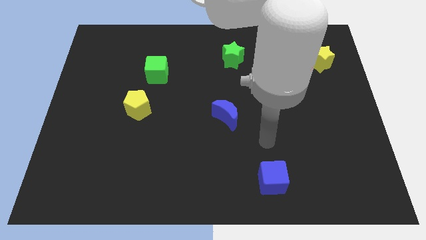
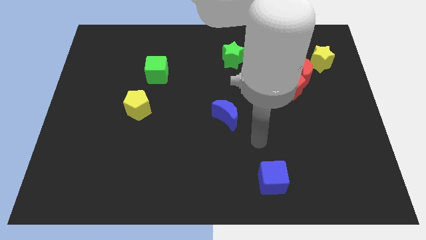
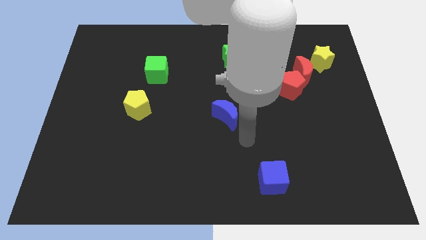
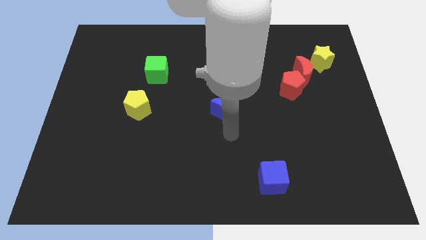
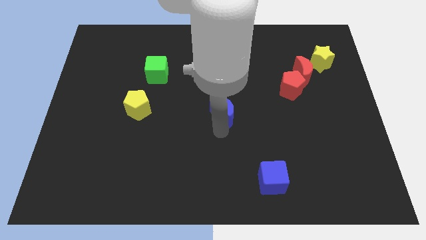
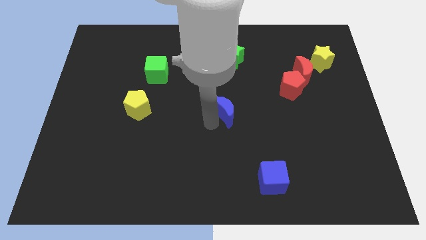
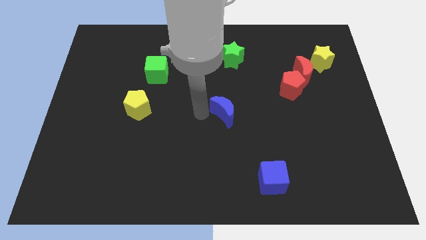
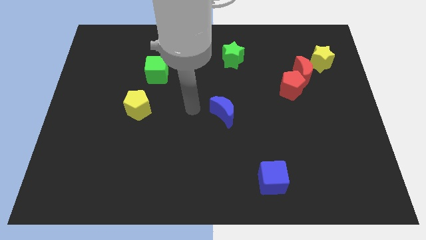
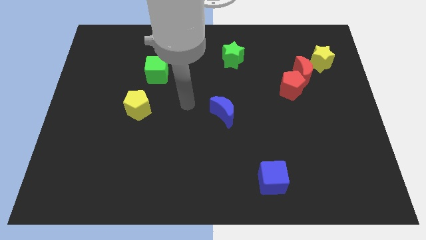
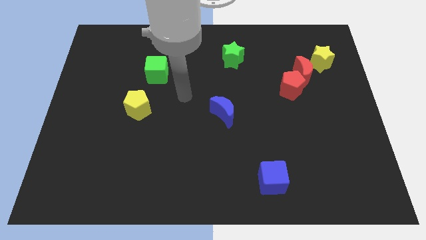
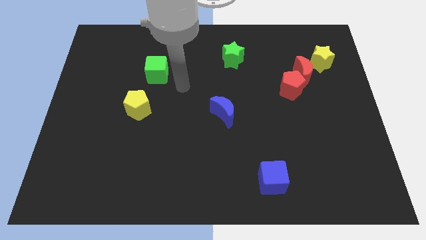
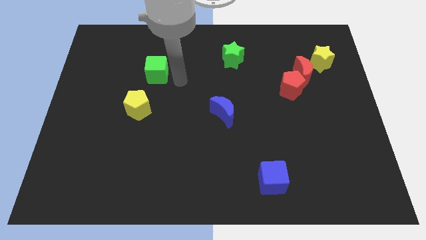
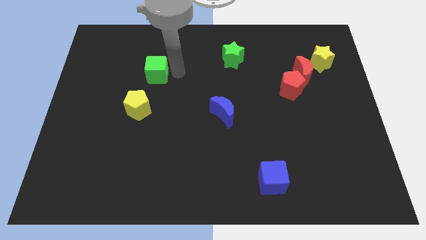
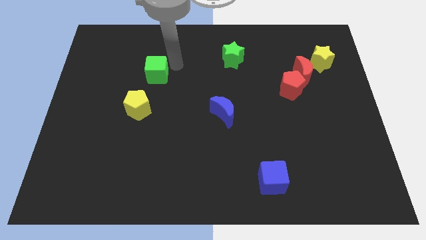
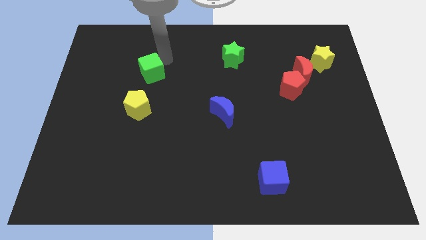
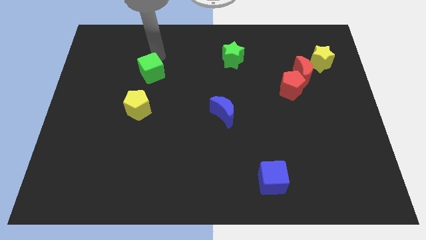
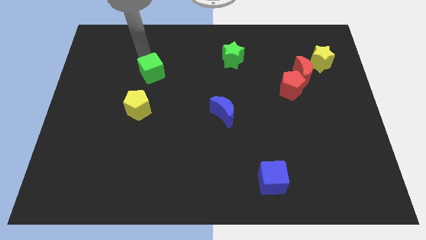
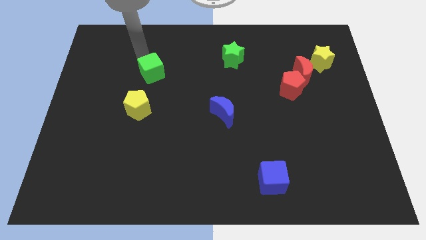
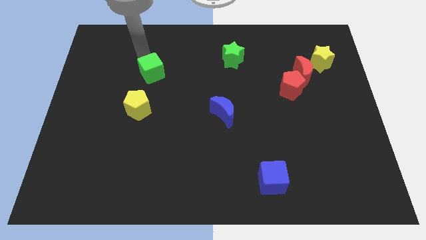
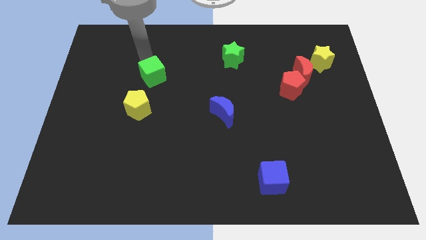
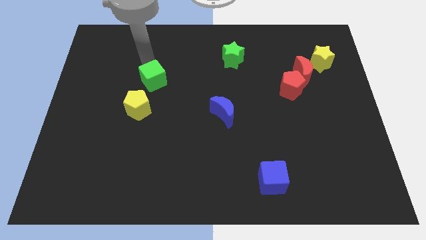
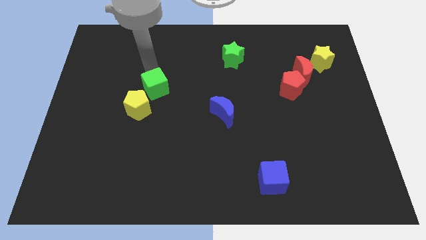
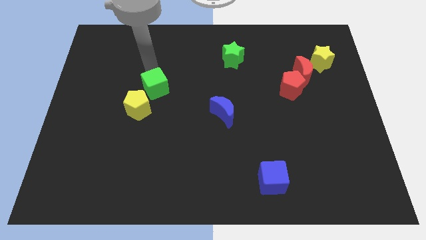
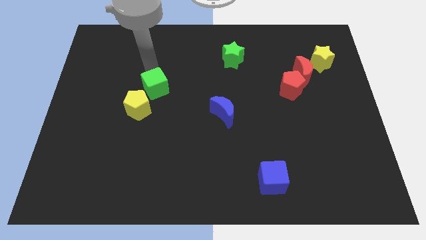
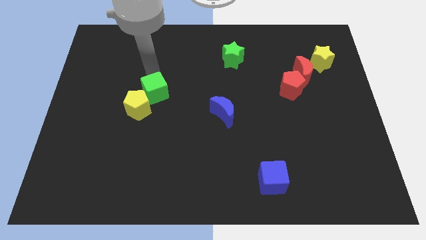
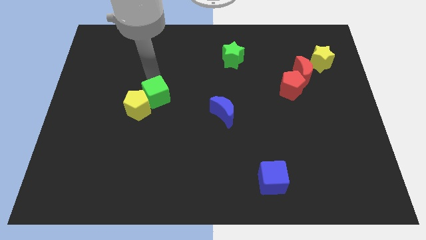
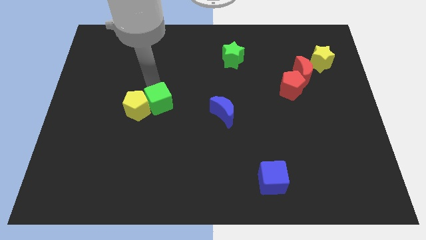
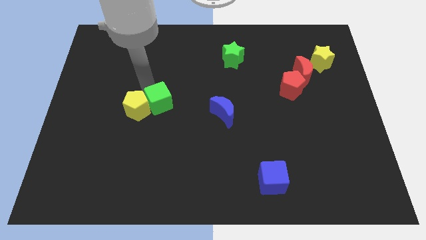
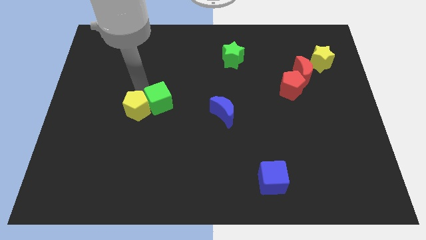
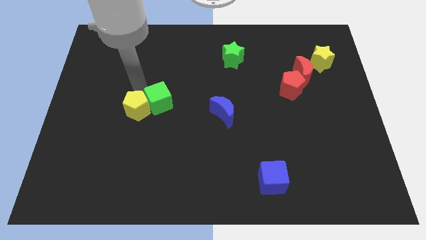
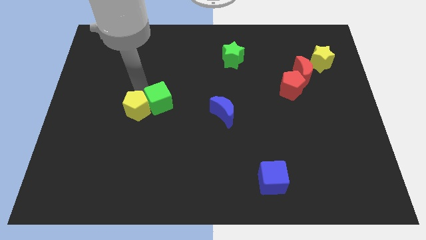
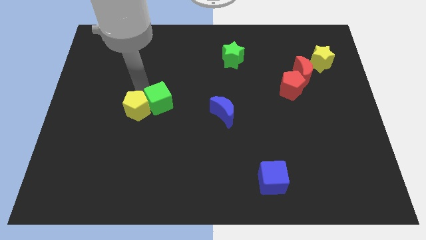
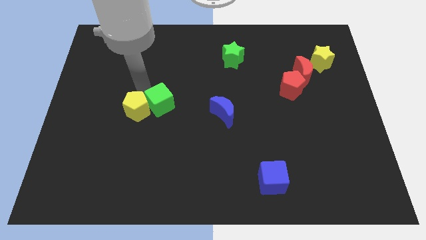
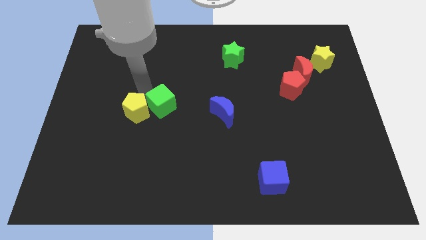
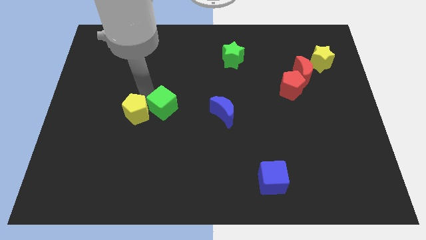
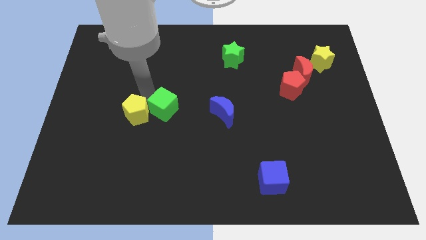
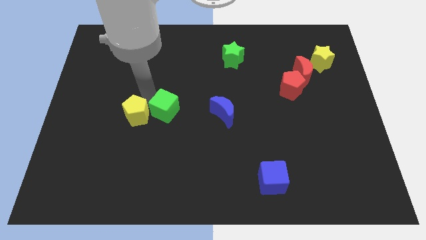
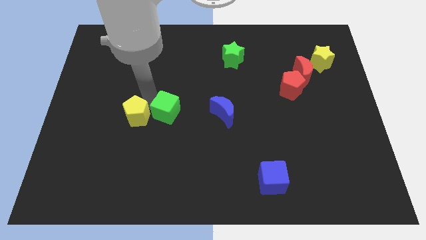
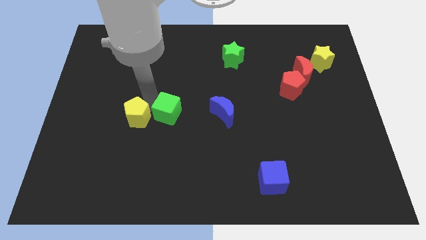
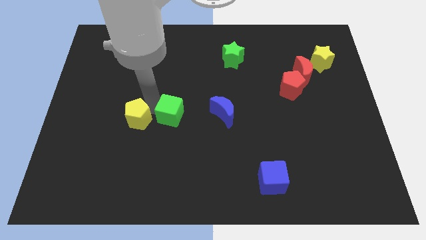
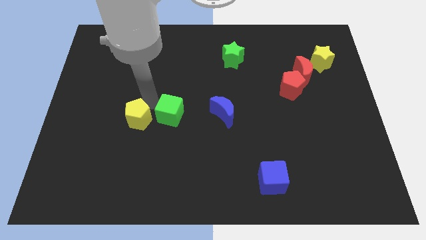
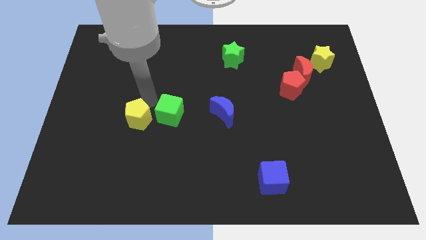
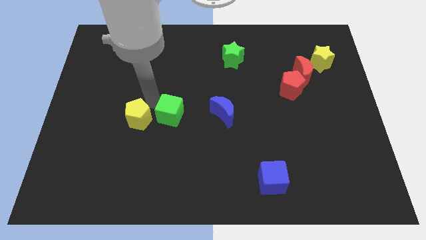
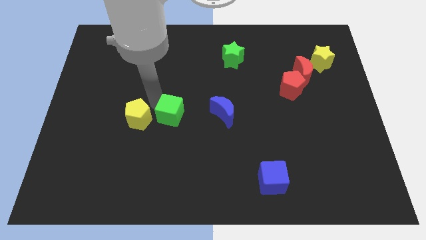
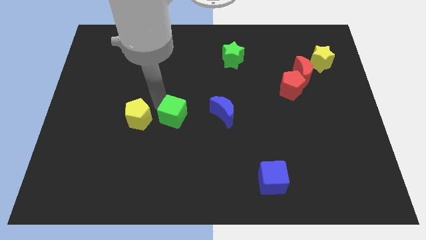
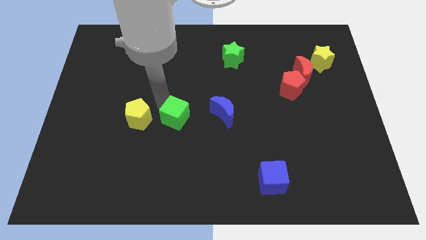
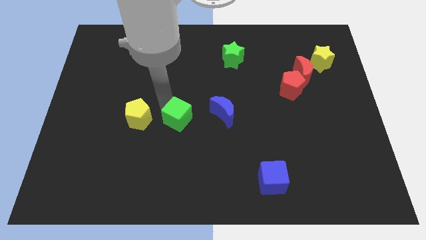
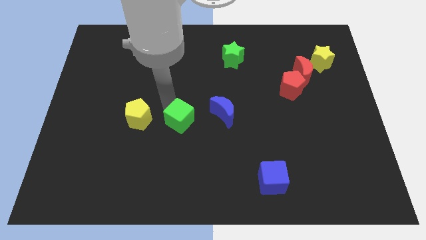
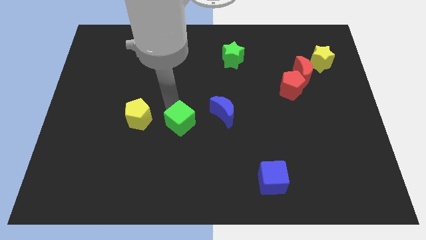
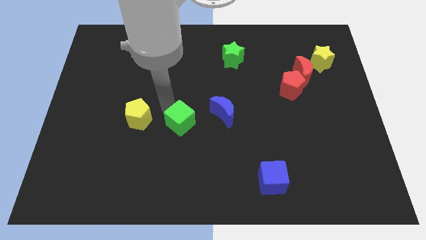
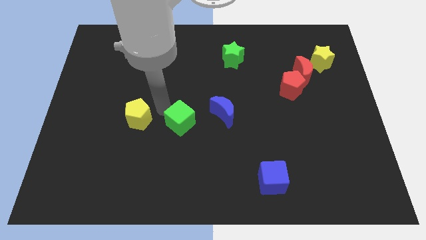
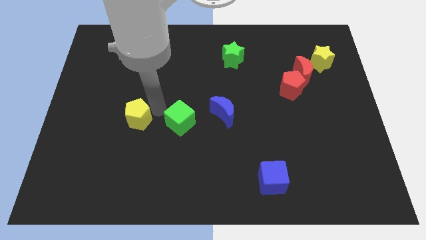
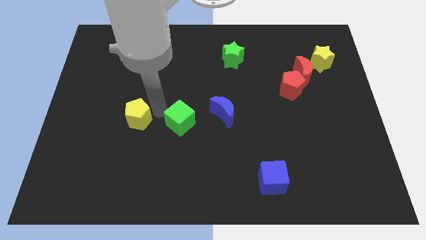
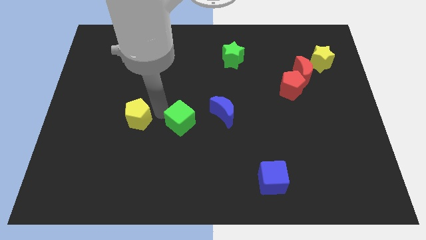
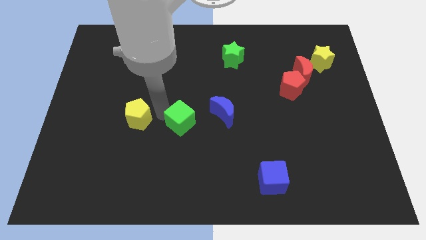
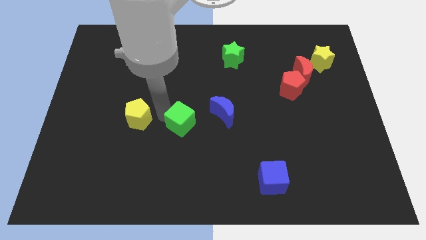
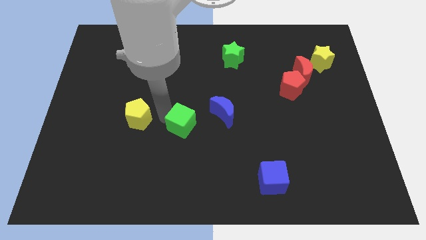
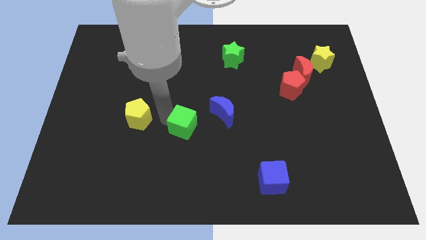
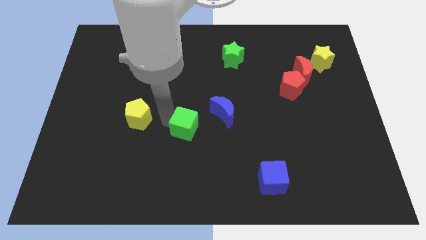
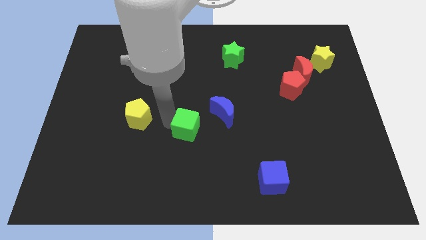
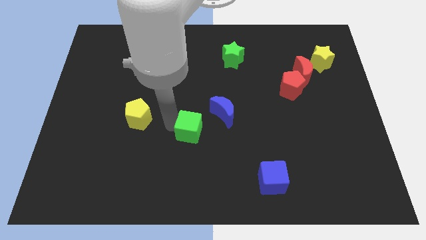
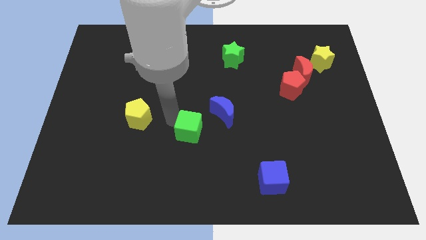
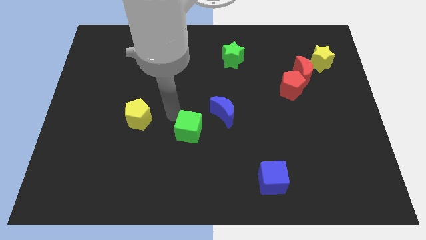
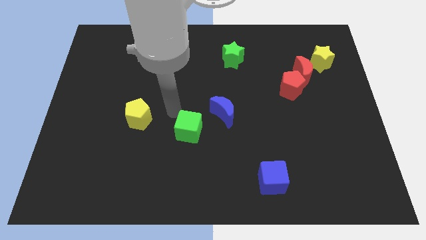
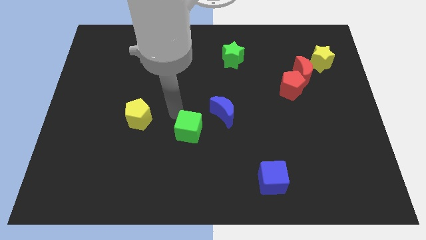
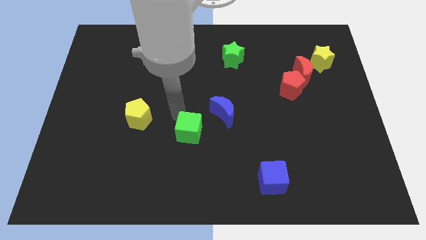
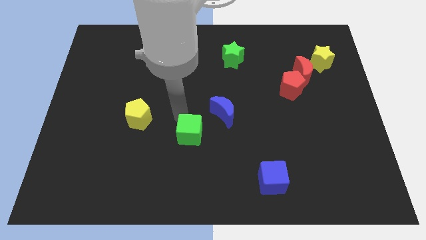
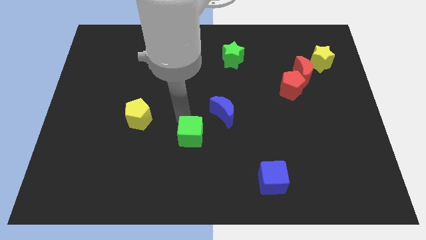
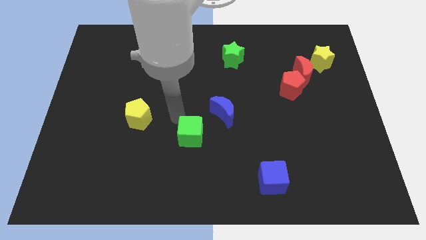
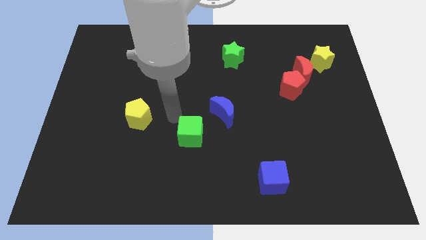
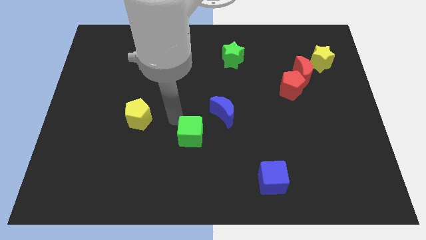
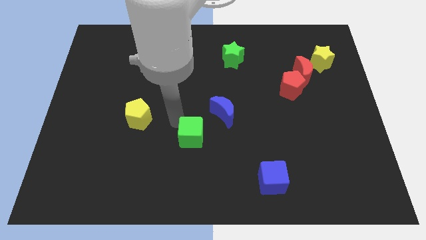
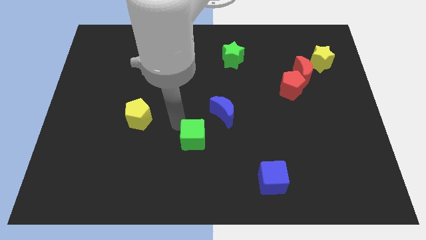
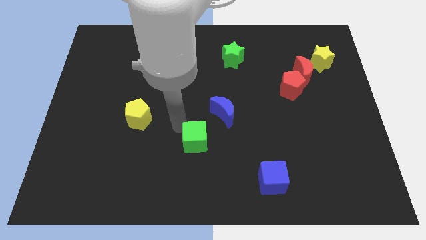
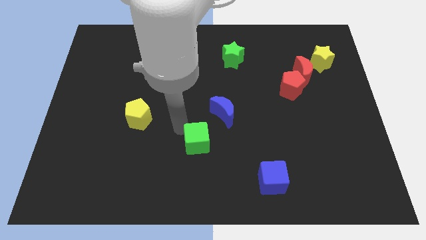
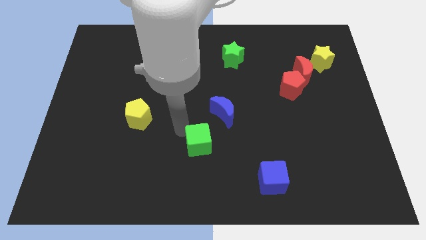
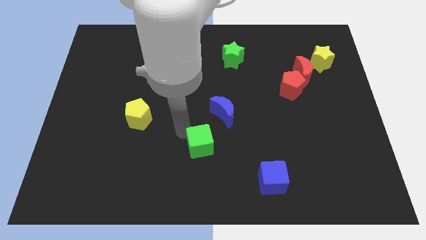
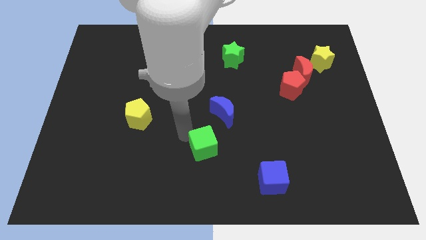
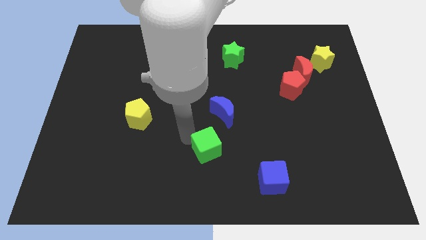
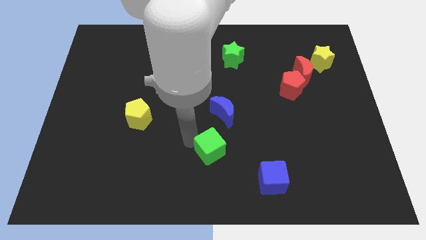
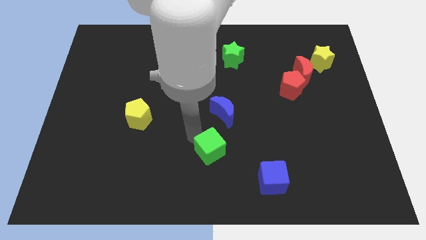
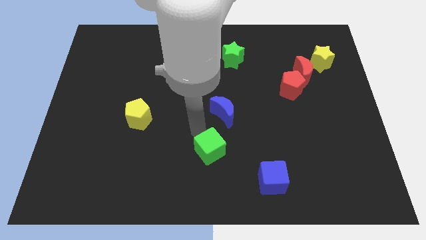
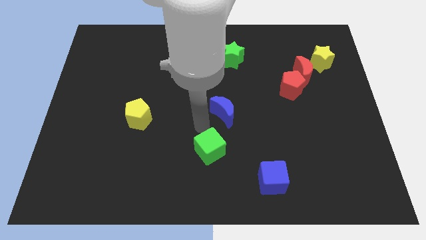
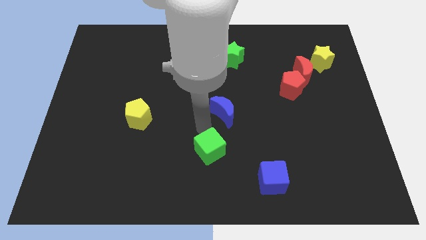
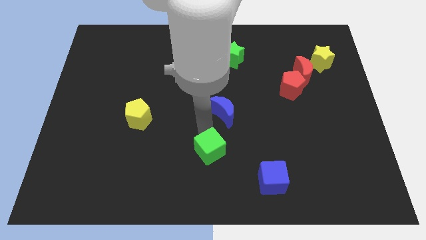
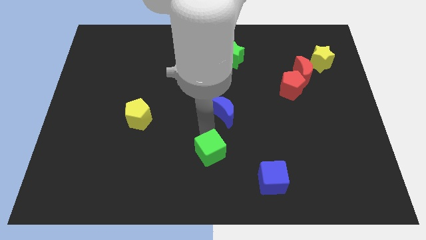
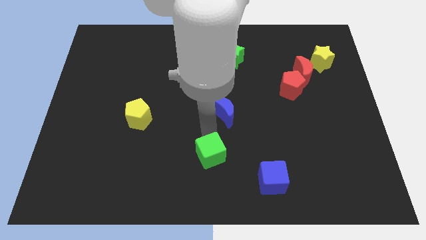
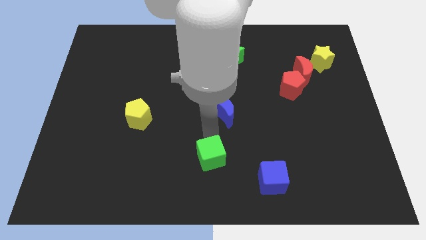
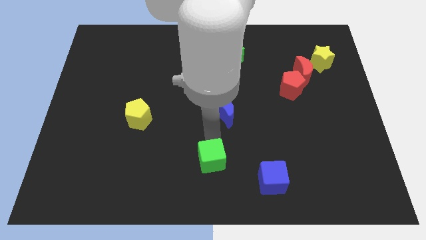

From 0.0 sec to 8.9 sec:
move the green cube left of the blue cube
